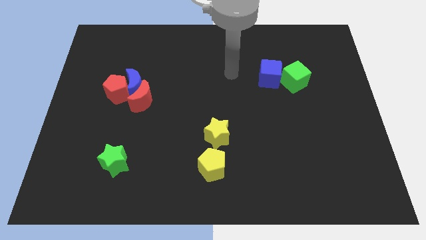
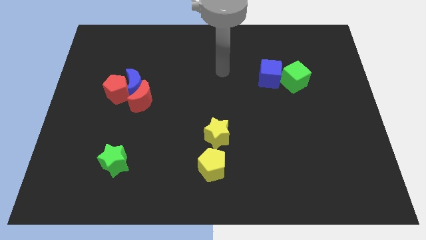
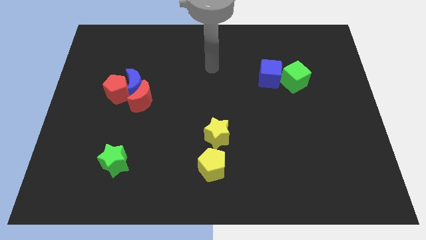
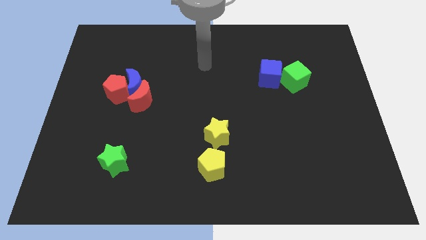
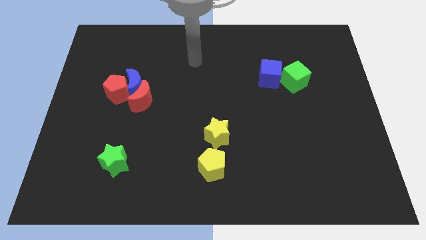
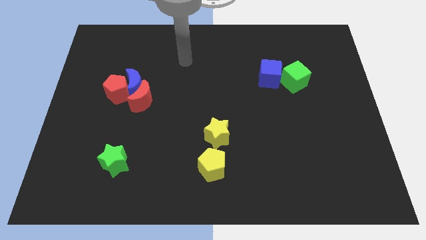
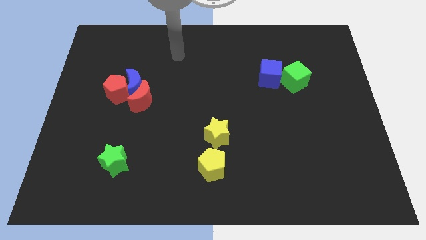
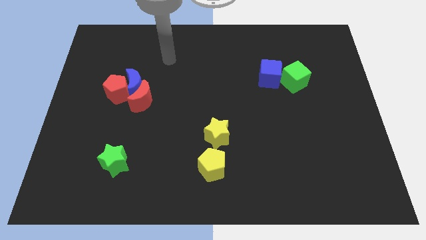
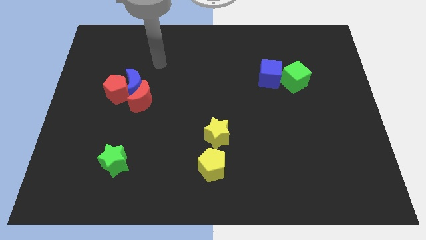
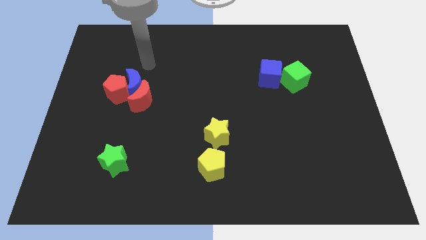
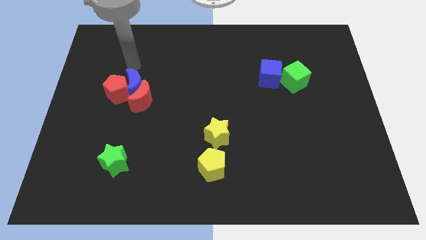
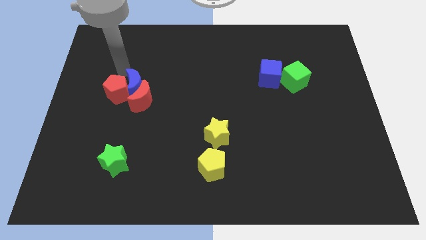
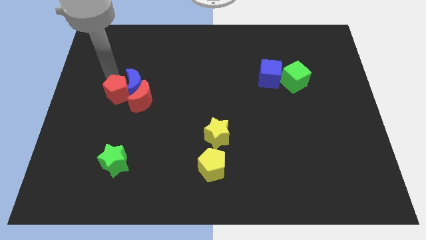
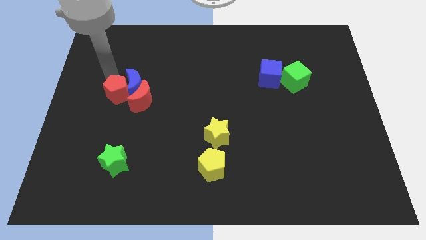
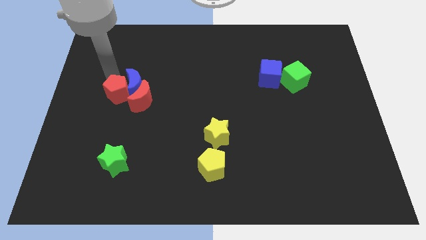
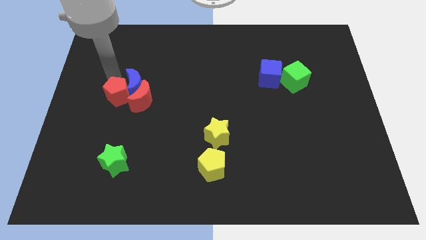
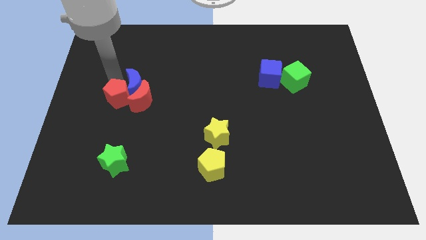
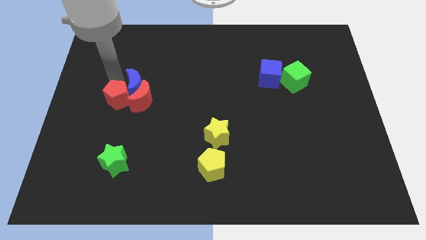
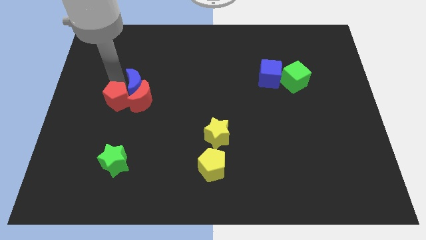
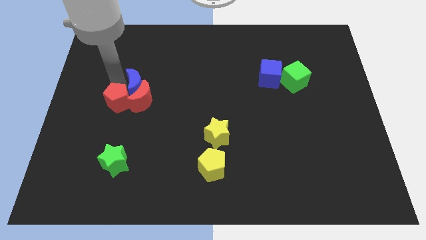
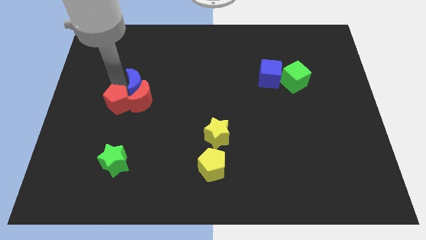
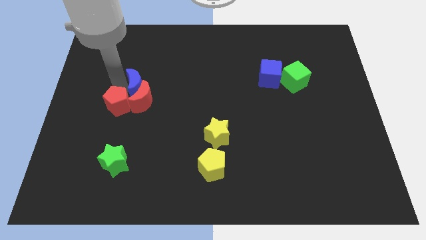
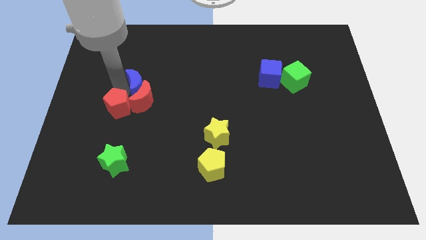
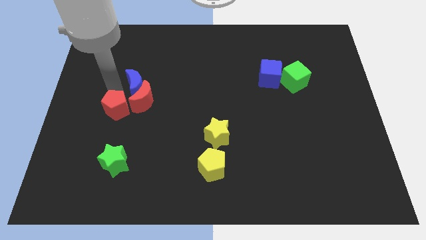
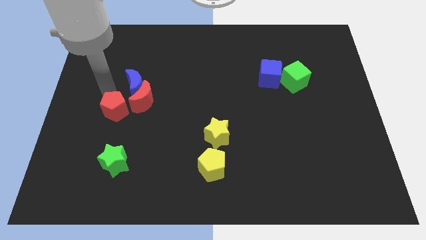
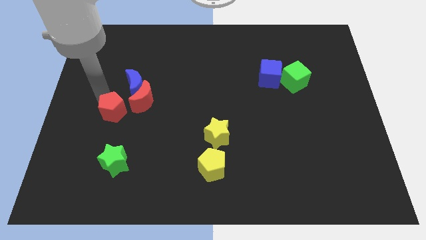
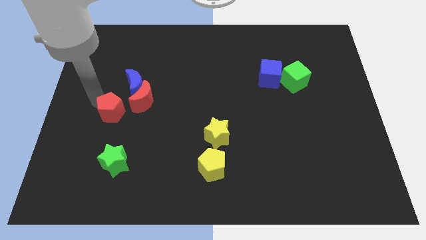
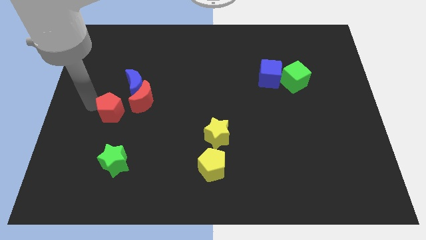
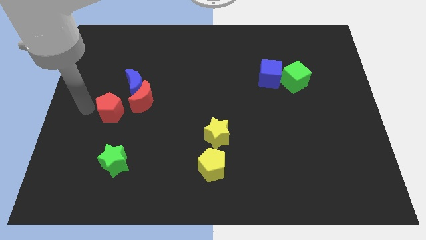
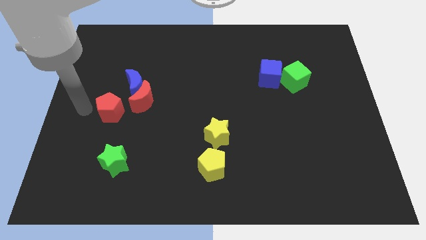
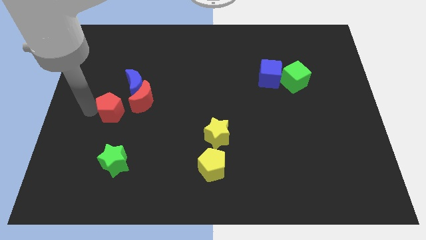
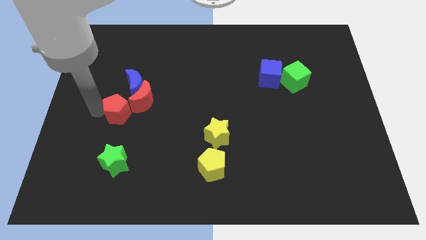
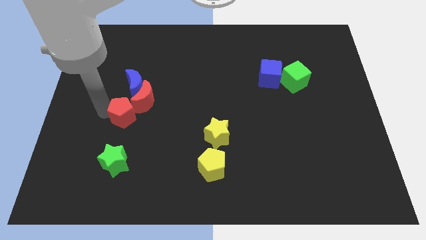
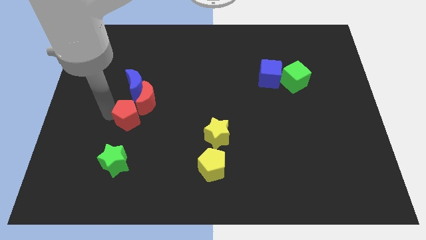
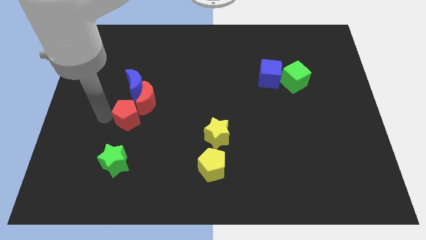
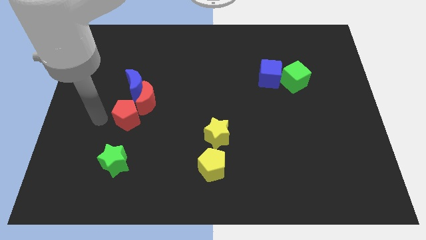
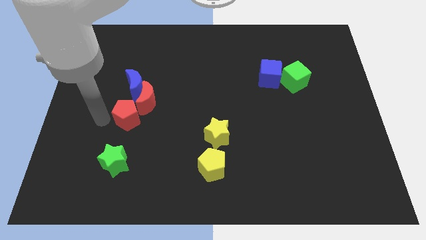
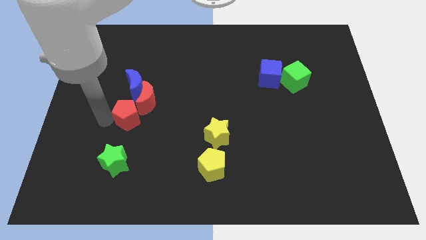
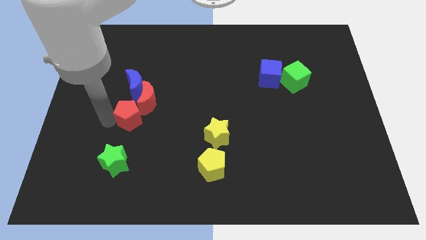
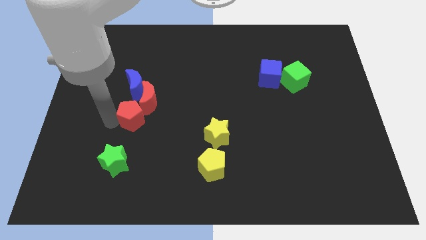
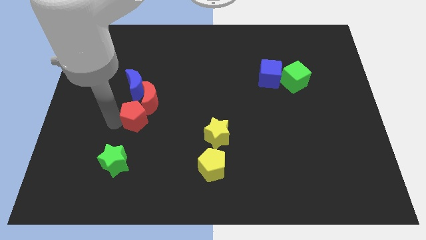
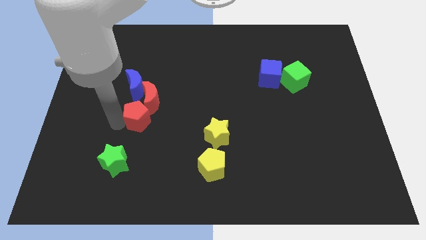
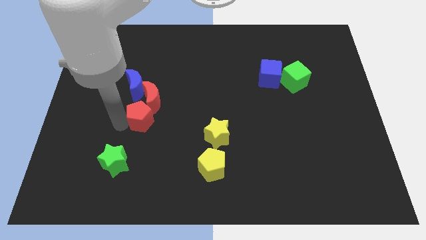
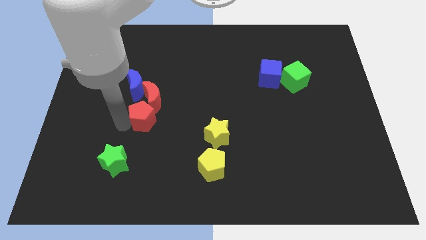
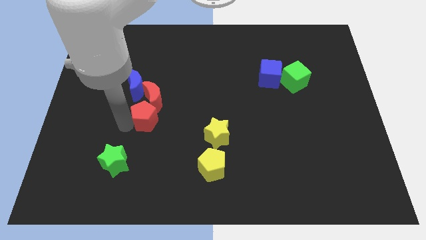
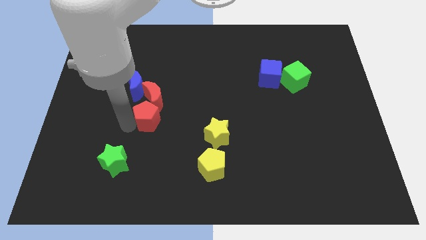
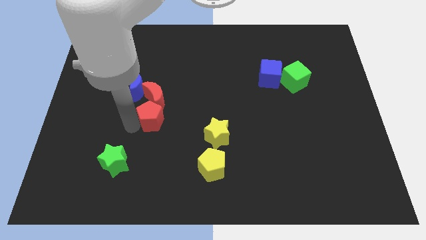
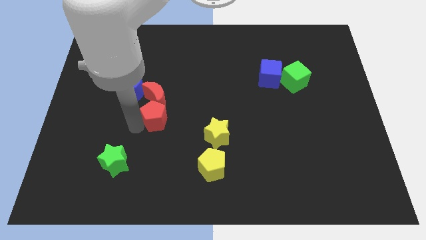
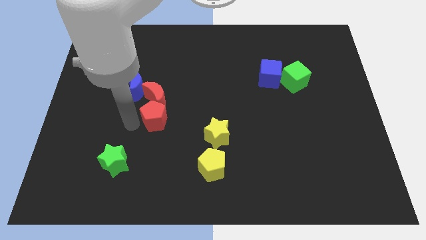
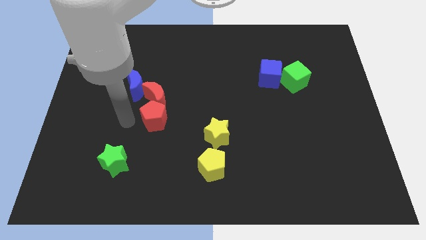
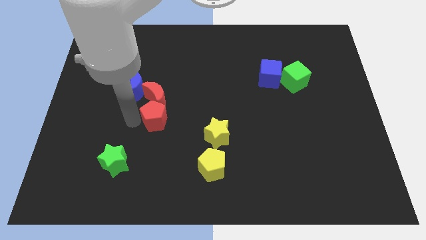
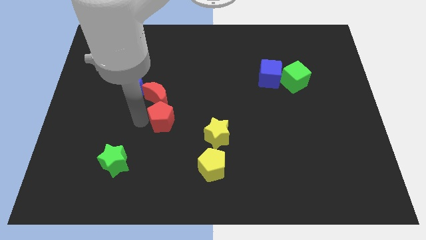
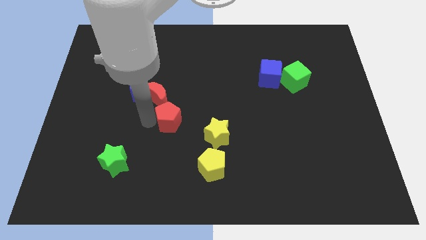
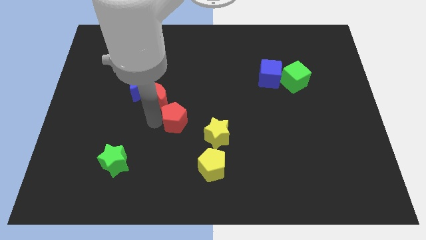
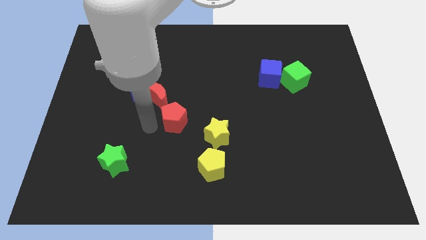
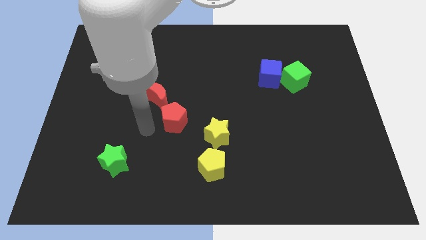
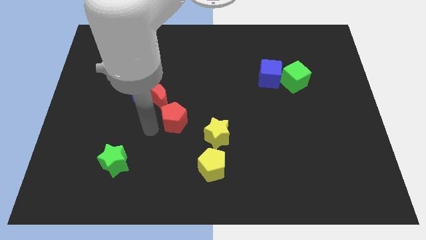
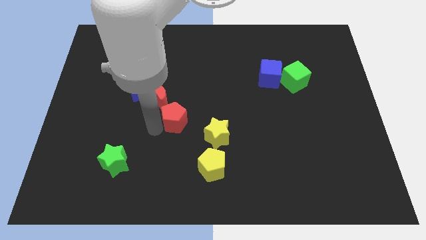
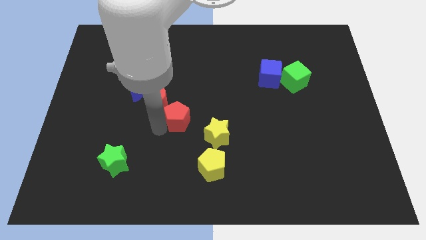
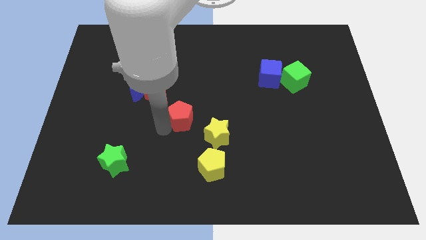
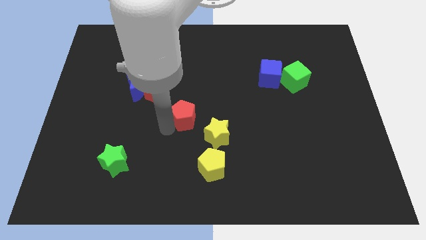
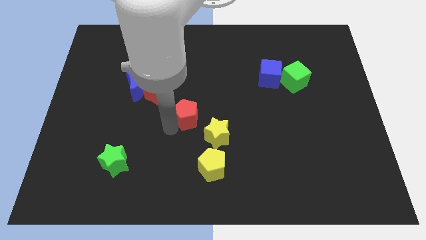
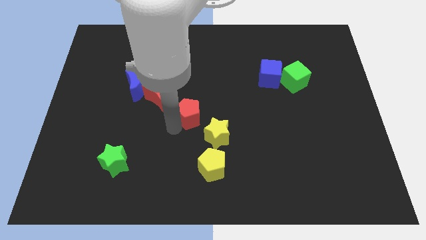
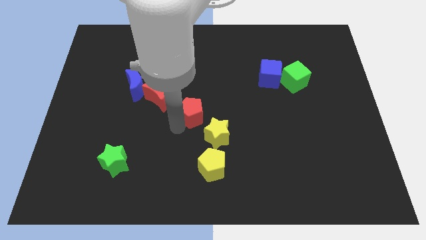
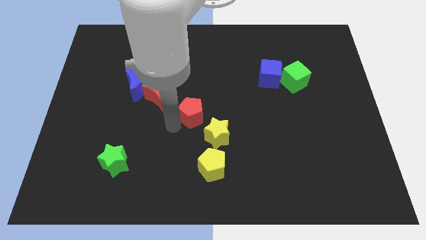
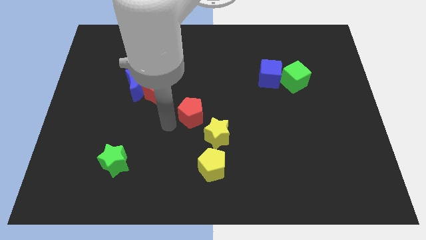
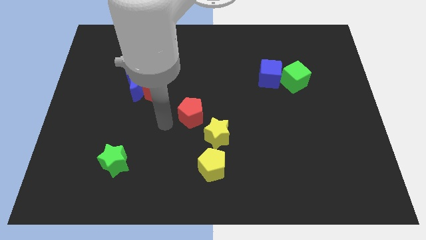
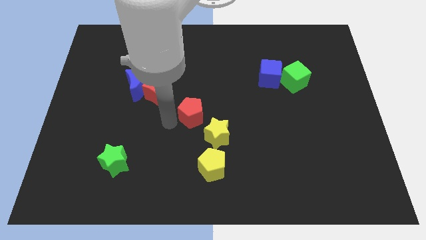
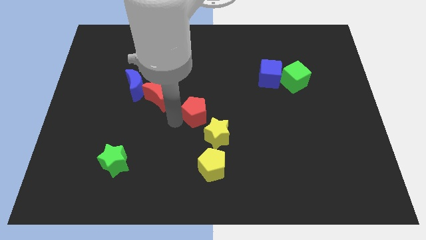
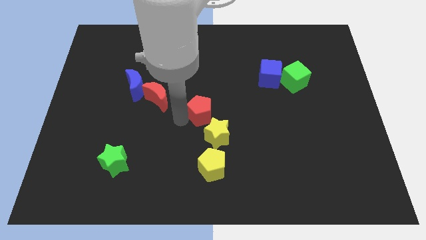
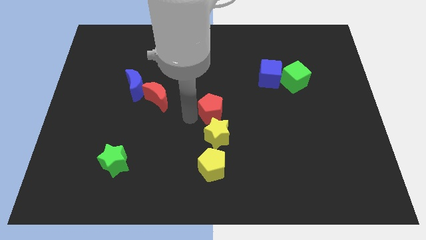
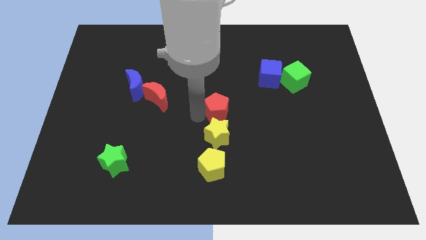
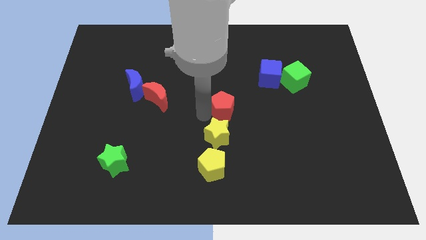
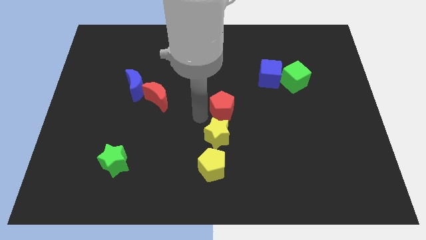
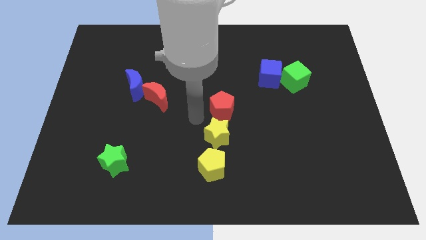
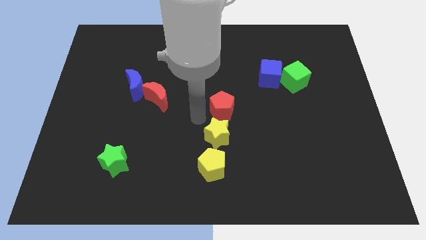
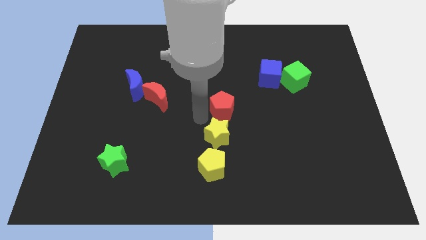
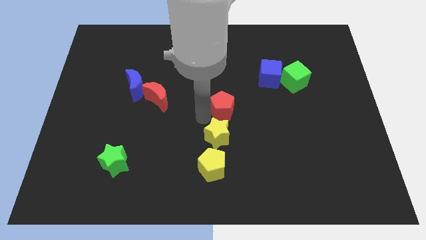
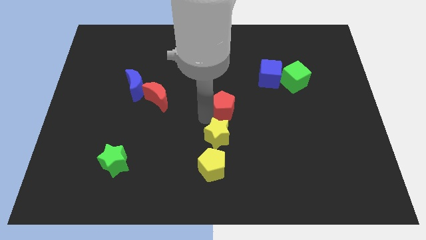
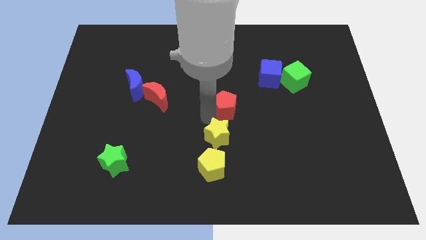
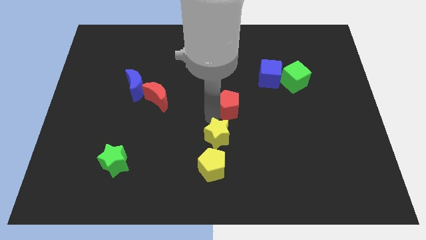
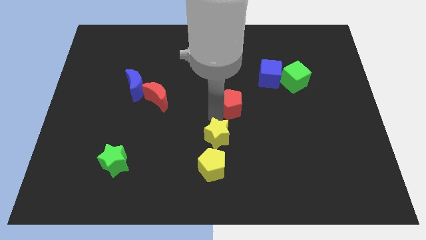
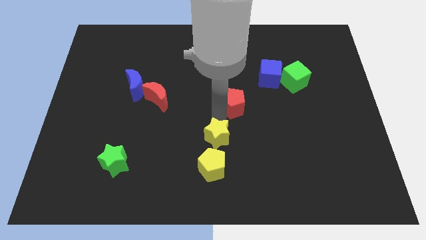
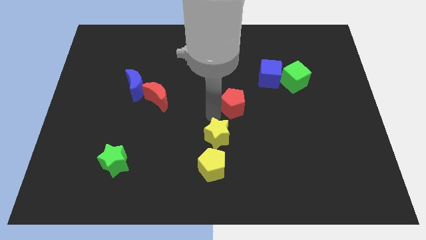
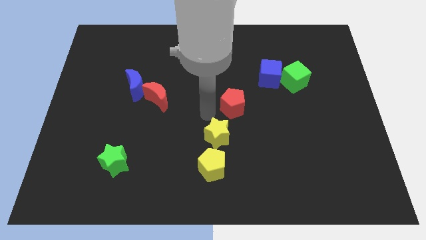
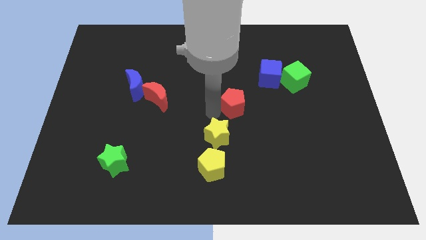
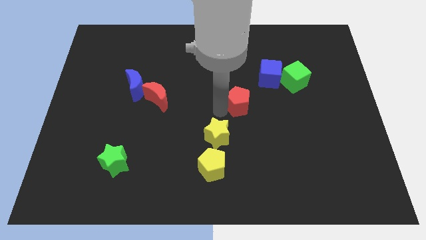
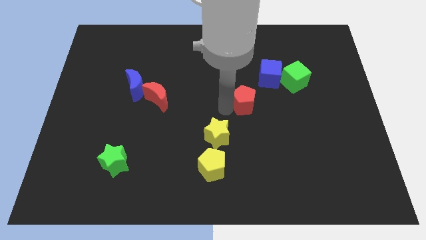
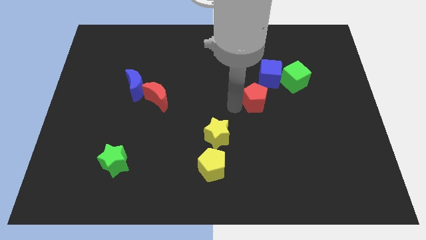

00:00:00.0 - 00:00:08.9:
push the red pentagon diagonally down and to the left of the green cube
